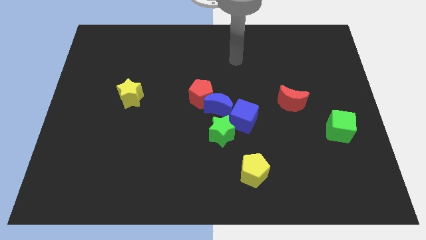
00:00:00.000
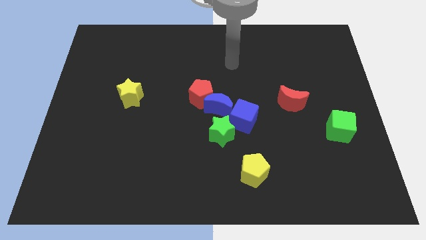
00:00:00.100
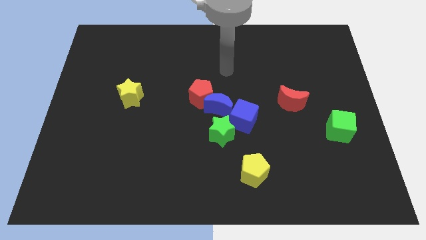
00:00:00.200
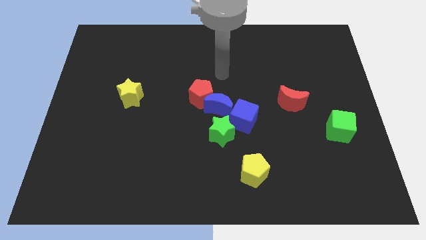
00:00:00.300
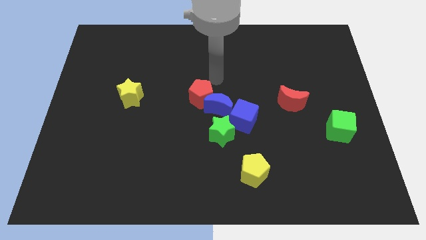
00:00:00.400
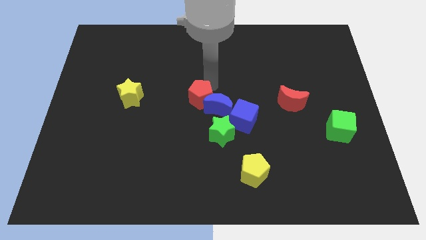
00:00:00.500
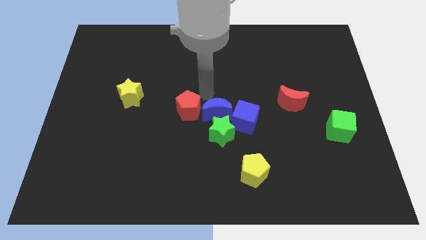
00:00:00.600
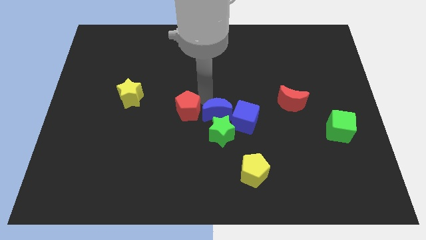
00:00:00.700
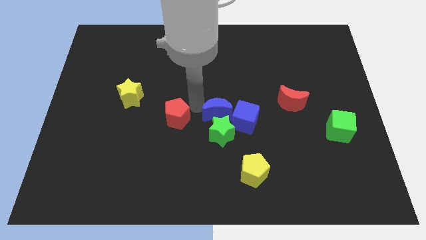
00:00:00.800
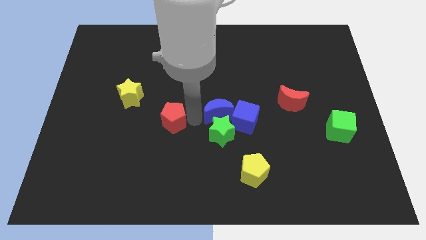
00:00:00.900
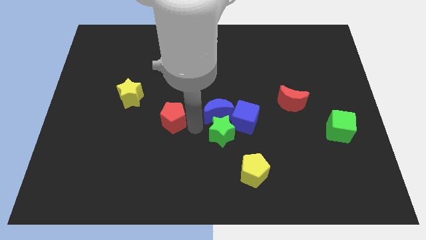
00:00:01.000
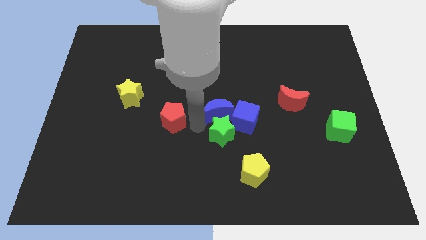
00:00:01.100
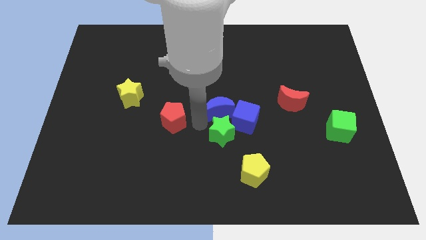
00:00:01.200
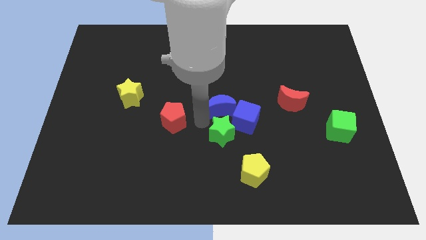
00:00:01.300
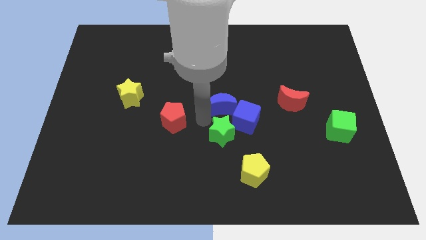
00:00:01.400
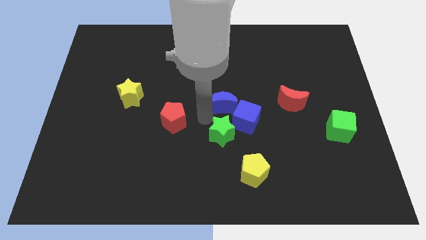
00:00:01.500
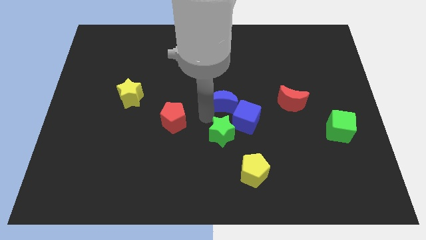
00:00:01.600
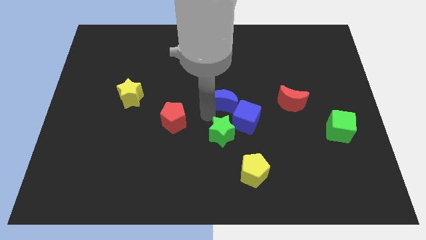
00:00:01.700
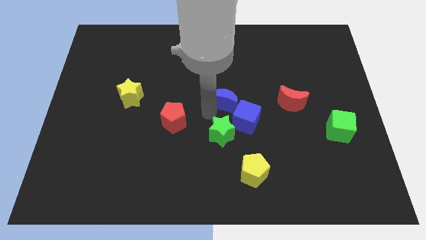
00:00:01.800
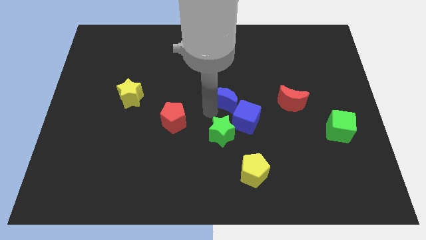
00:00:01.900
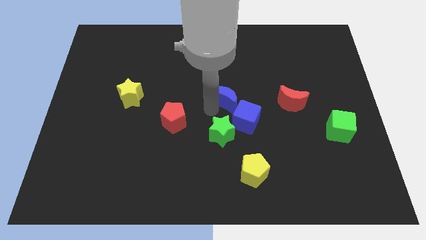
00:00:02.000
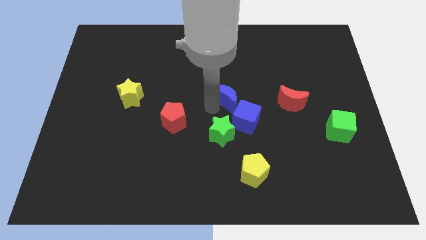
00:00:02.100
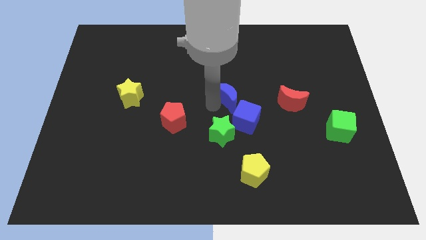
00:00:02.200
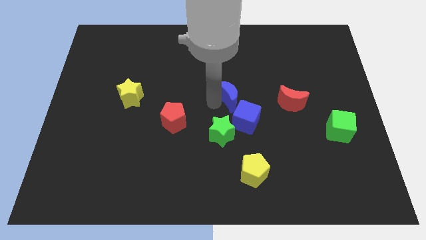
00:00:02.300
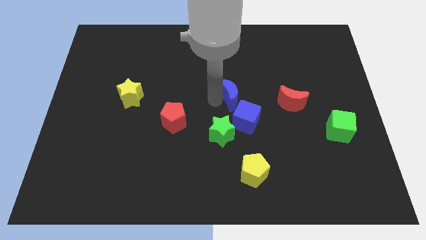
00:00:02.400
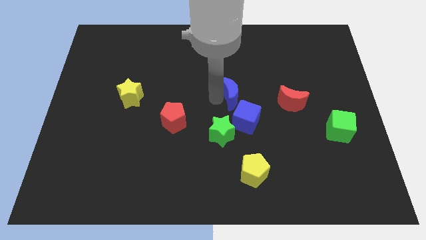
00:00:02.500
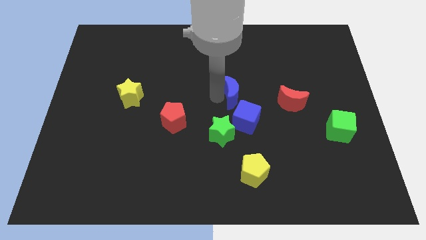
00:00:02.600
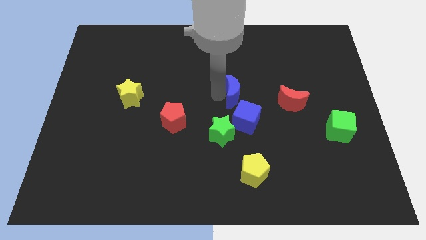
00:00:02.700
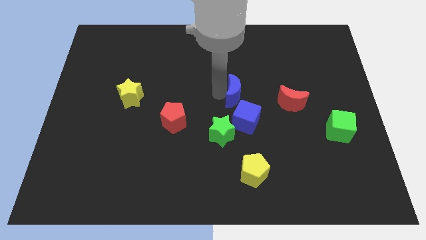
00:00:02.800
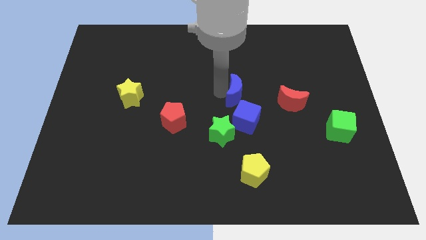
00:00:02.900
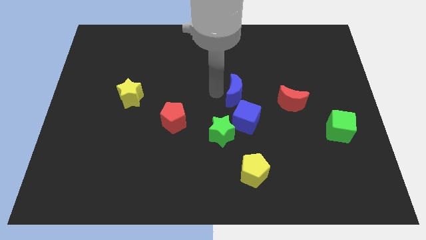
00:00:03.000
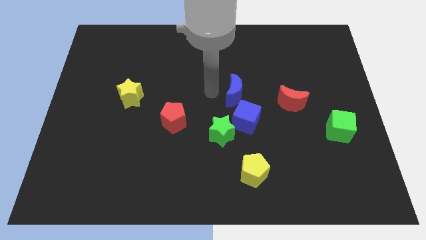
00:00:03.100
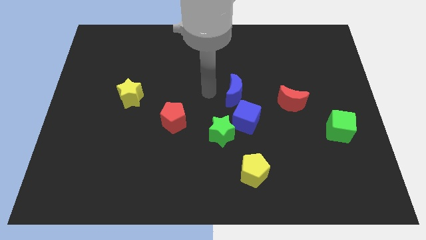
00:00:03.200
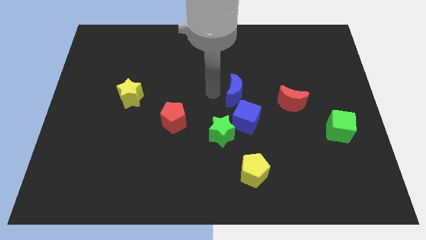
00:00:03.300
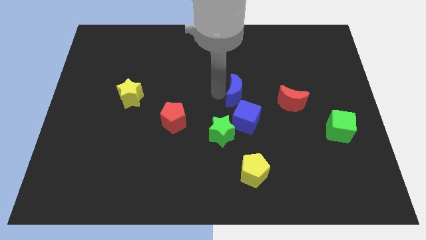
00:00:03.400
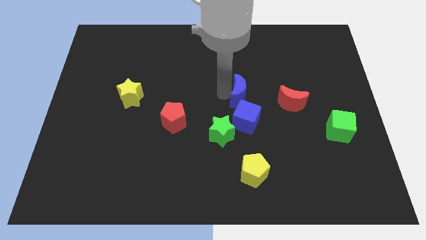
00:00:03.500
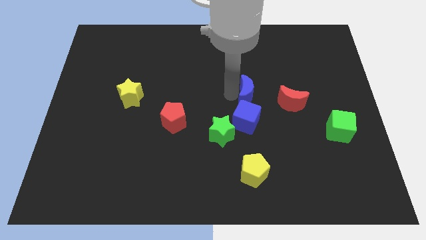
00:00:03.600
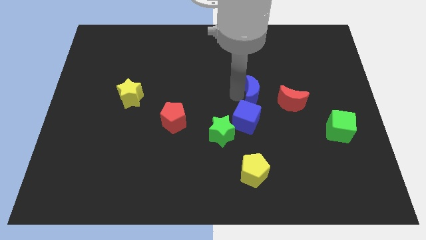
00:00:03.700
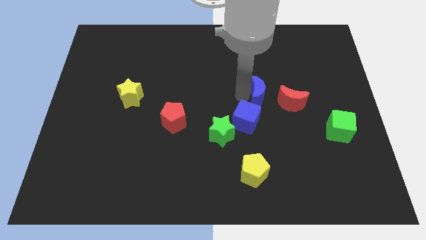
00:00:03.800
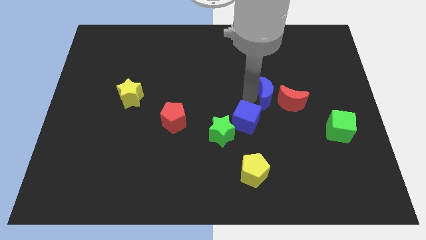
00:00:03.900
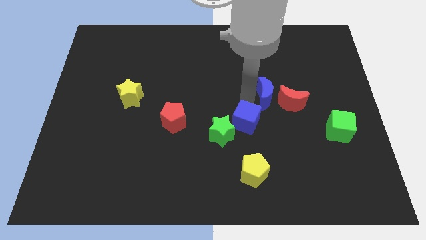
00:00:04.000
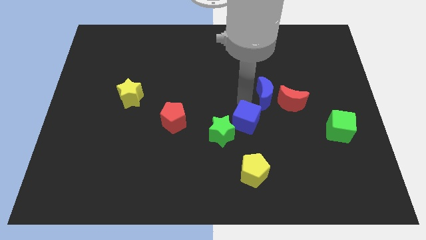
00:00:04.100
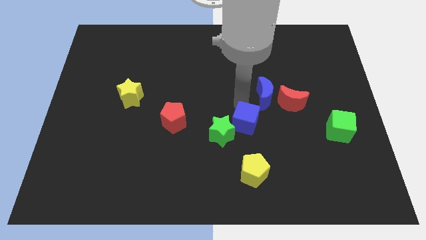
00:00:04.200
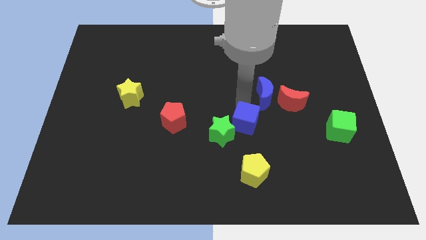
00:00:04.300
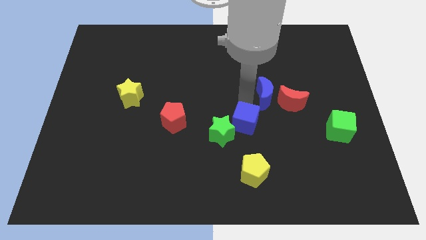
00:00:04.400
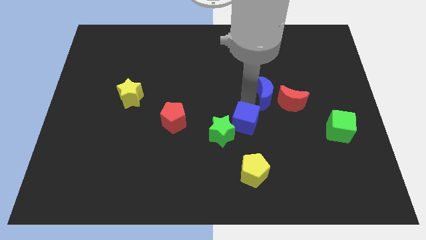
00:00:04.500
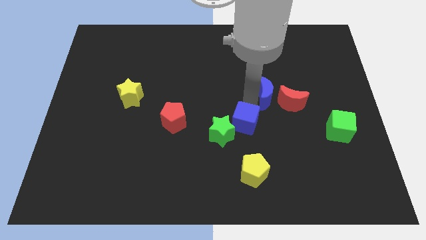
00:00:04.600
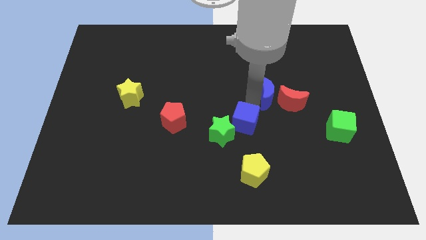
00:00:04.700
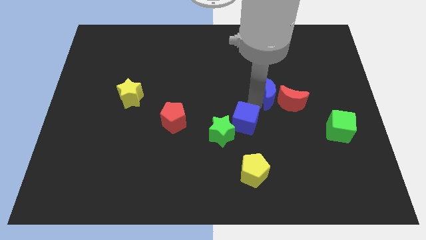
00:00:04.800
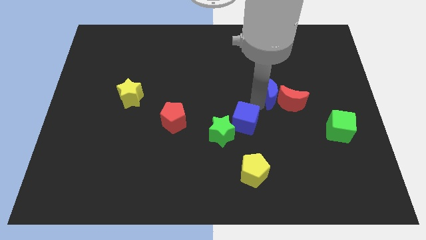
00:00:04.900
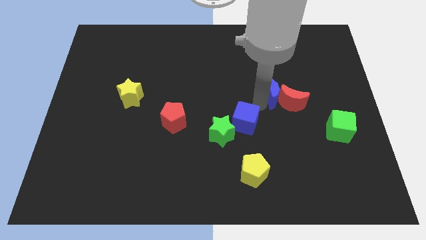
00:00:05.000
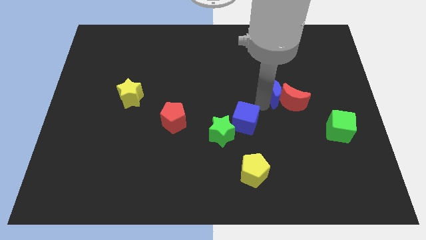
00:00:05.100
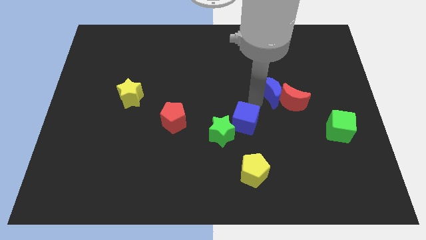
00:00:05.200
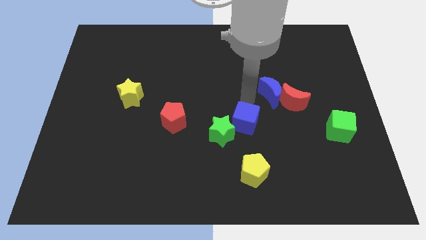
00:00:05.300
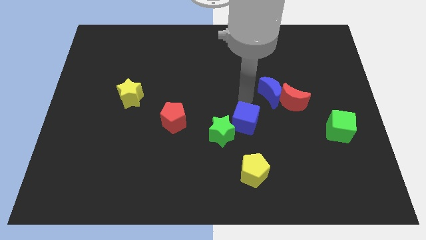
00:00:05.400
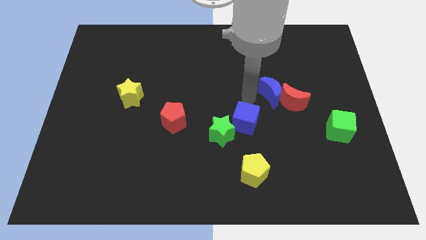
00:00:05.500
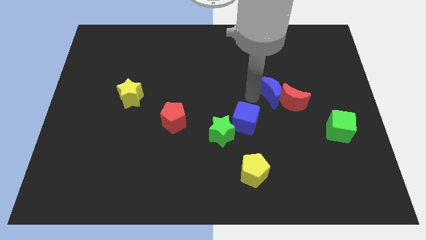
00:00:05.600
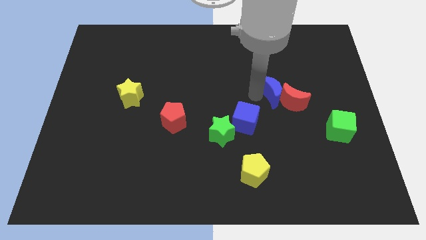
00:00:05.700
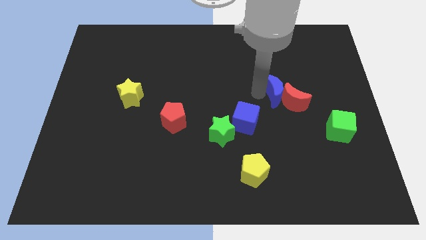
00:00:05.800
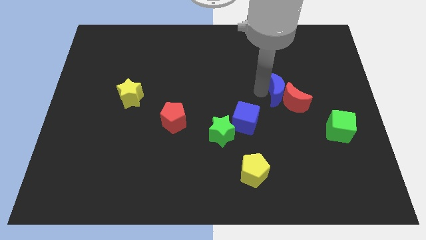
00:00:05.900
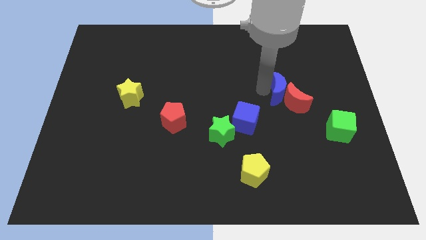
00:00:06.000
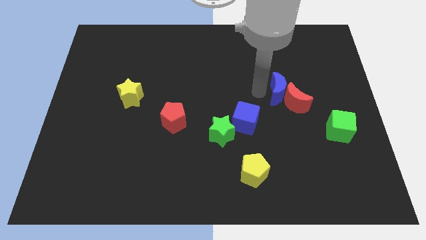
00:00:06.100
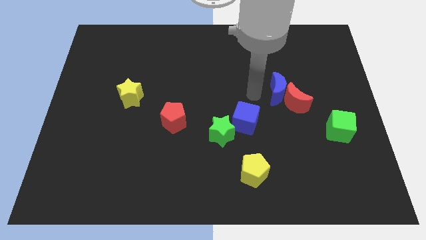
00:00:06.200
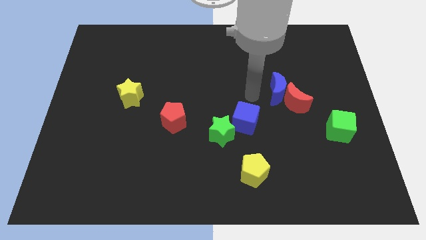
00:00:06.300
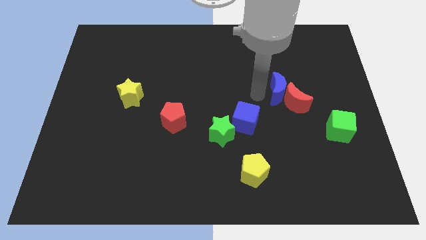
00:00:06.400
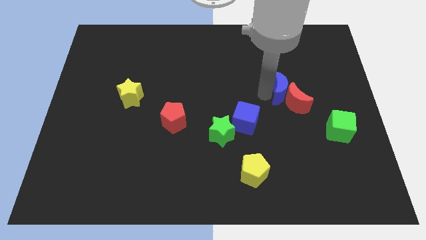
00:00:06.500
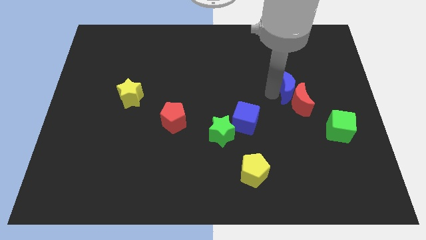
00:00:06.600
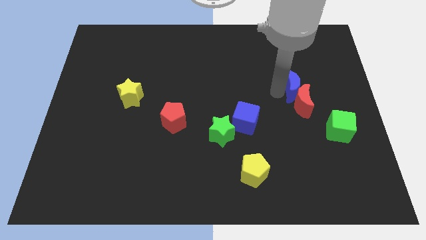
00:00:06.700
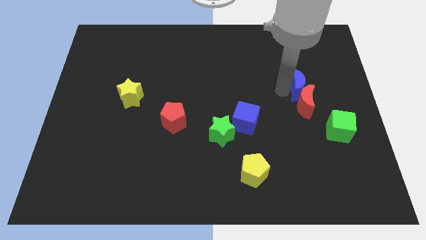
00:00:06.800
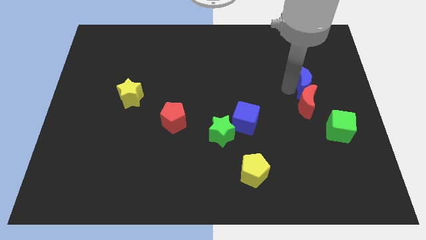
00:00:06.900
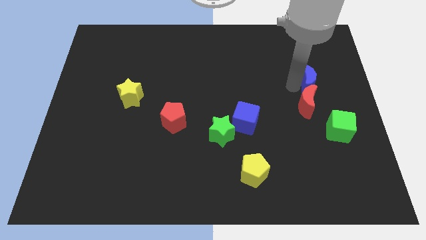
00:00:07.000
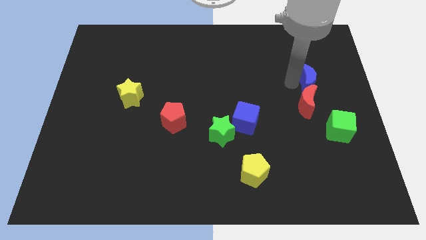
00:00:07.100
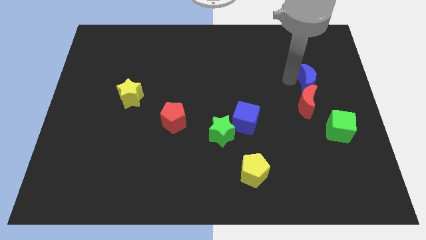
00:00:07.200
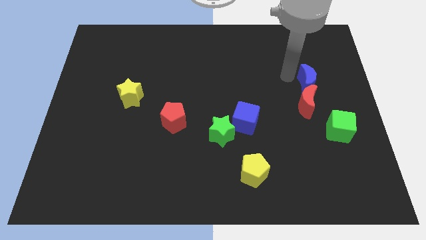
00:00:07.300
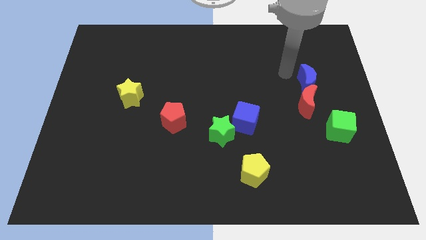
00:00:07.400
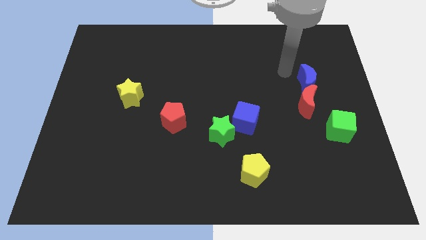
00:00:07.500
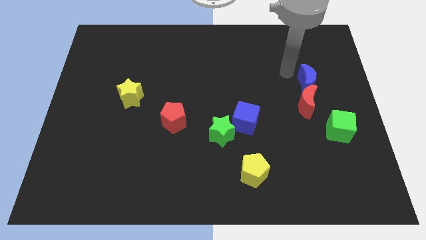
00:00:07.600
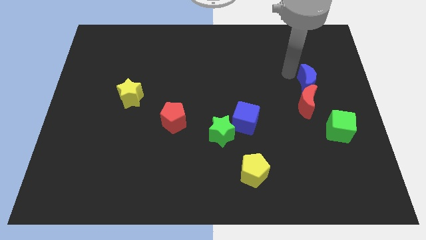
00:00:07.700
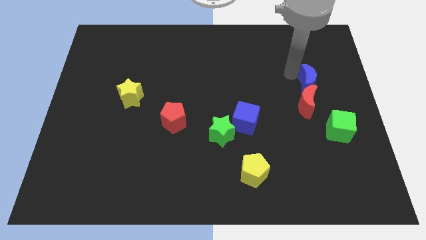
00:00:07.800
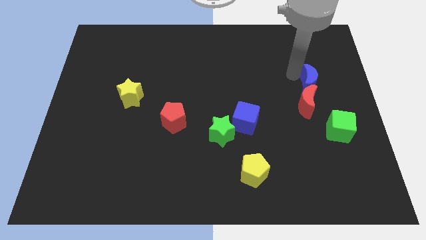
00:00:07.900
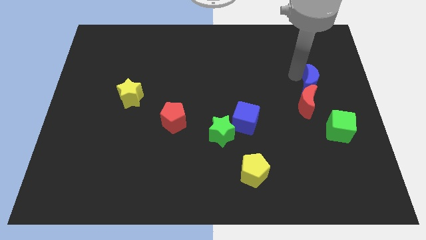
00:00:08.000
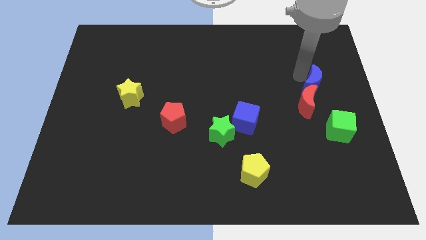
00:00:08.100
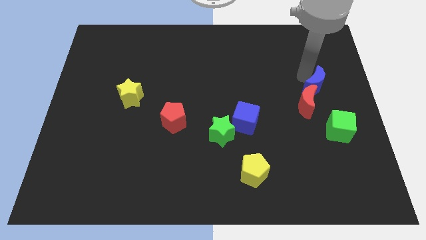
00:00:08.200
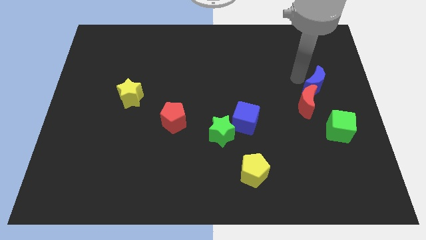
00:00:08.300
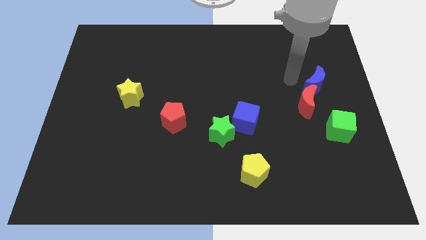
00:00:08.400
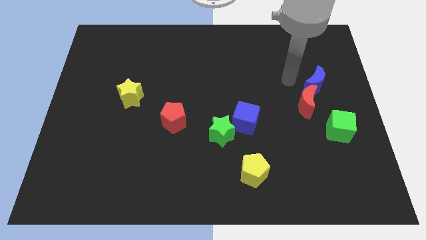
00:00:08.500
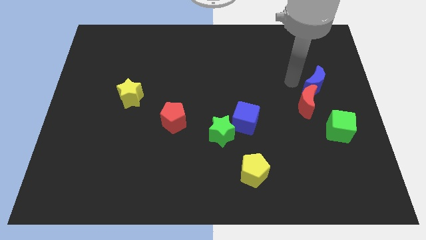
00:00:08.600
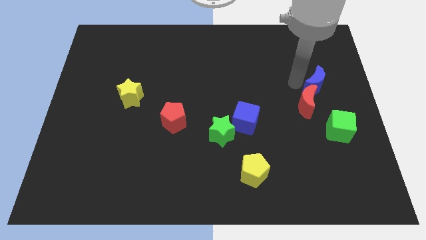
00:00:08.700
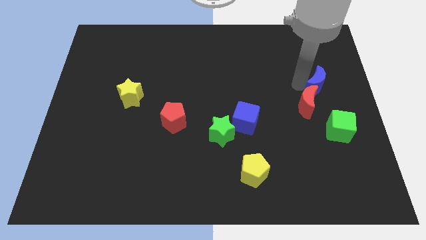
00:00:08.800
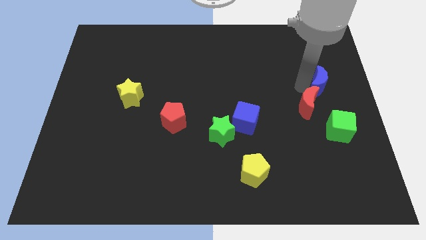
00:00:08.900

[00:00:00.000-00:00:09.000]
slide the blue moon to the right side of the board
